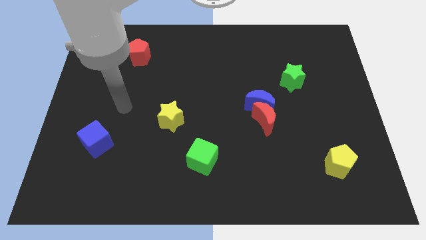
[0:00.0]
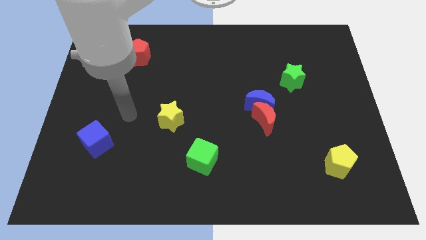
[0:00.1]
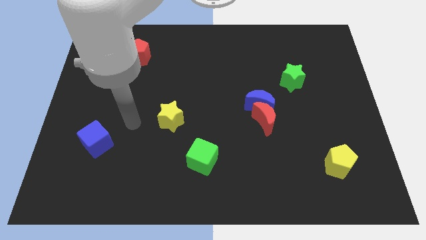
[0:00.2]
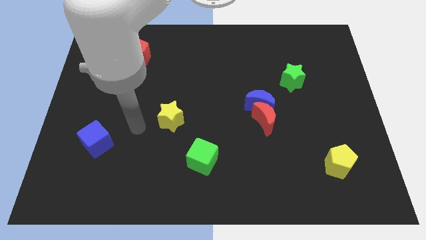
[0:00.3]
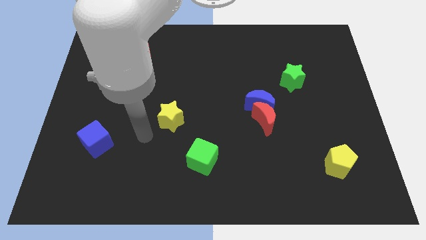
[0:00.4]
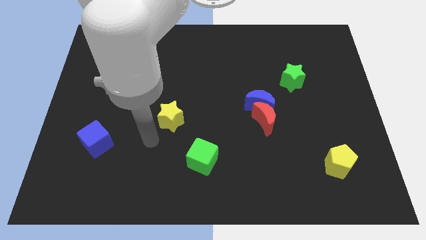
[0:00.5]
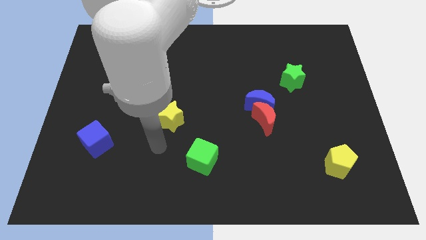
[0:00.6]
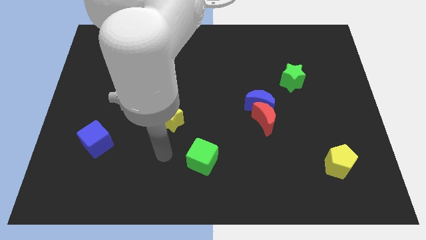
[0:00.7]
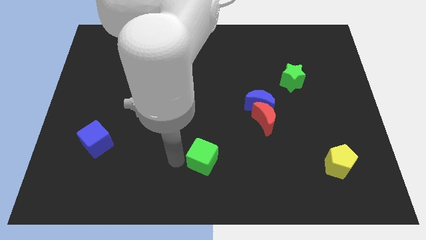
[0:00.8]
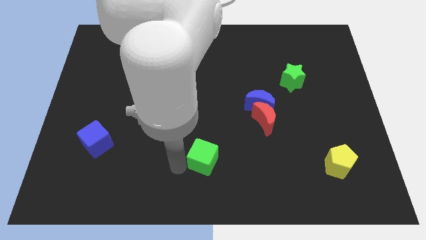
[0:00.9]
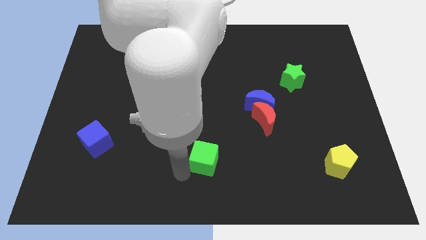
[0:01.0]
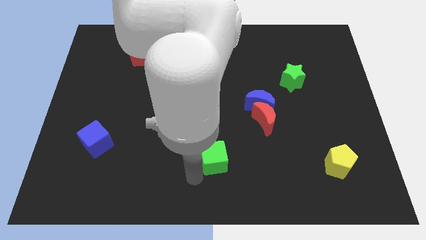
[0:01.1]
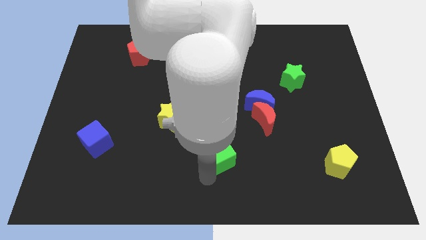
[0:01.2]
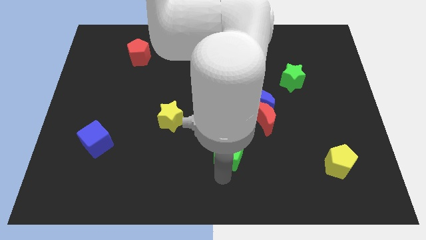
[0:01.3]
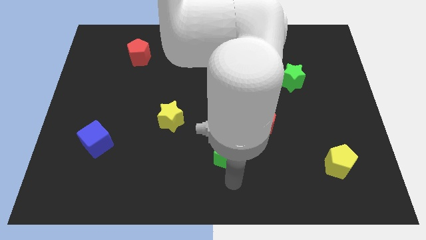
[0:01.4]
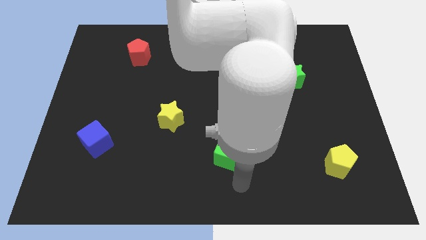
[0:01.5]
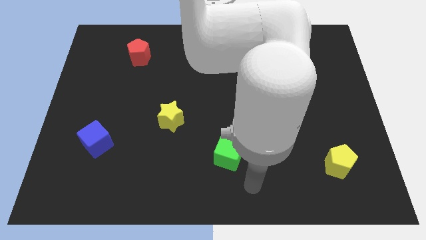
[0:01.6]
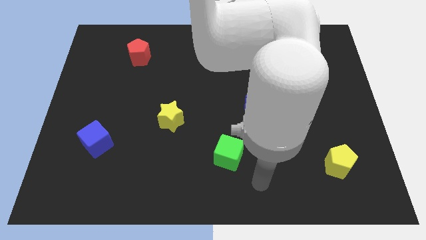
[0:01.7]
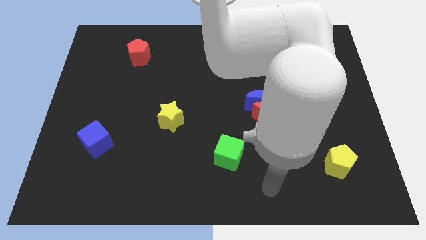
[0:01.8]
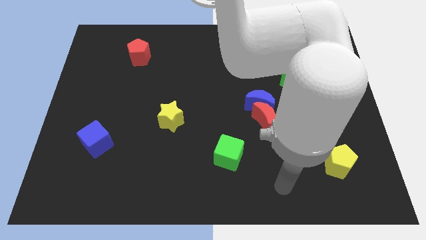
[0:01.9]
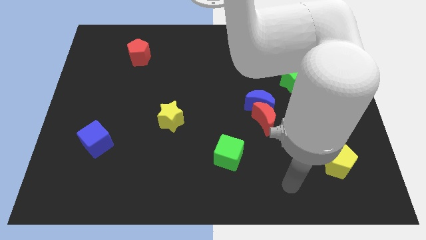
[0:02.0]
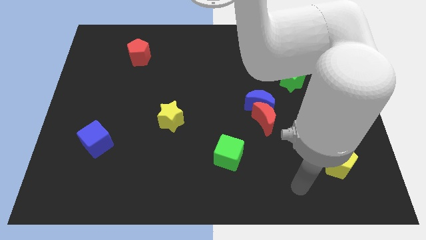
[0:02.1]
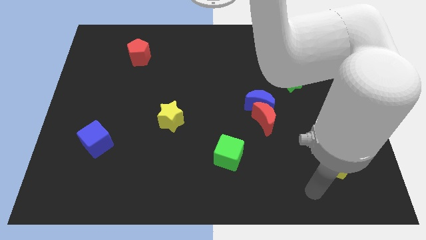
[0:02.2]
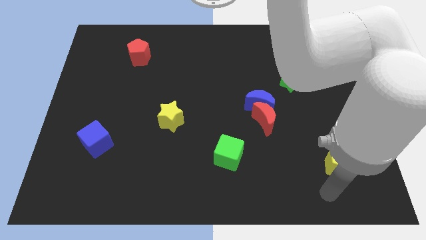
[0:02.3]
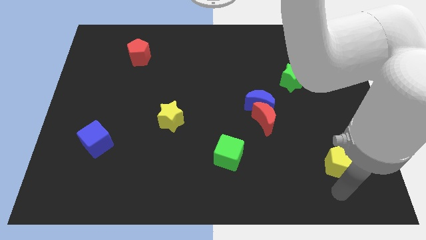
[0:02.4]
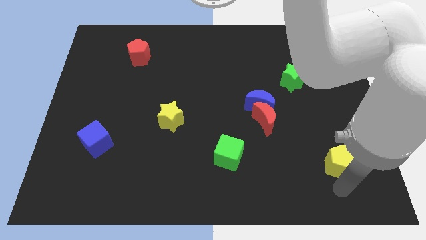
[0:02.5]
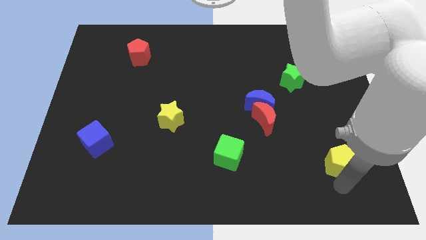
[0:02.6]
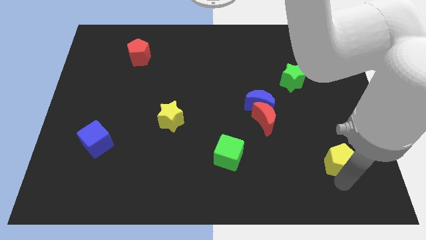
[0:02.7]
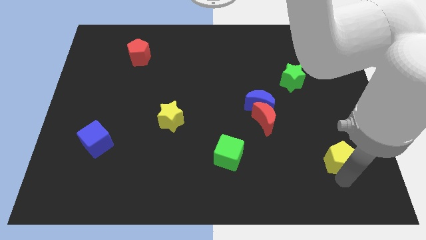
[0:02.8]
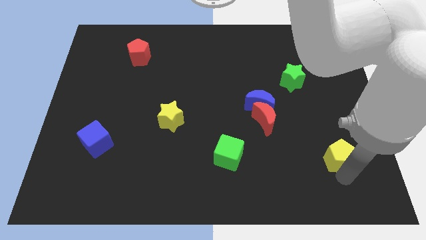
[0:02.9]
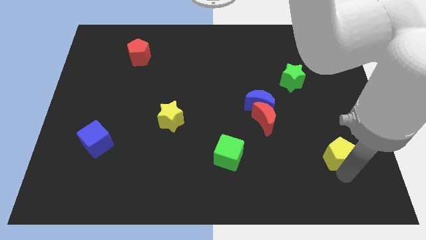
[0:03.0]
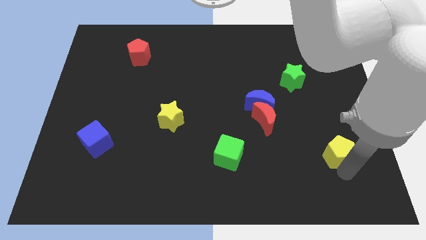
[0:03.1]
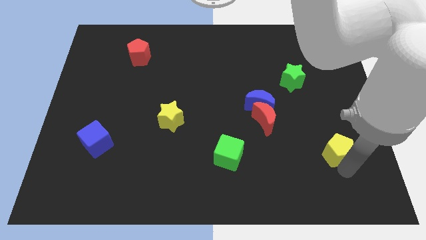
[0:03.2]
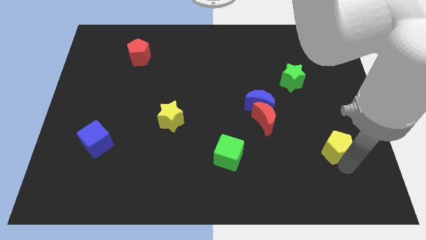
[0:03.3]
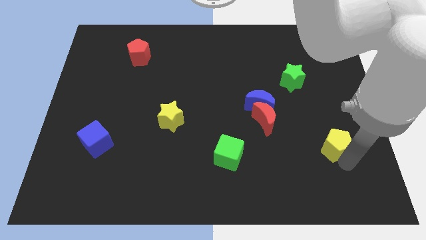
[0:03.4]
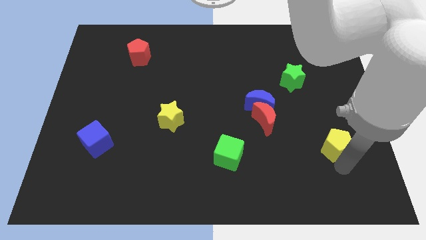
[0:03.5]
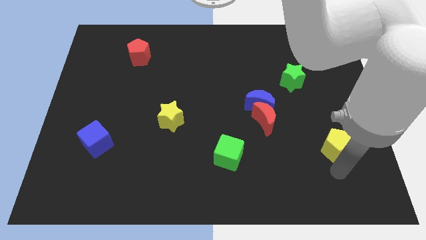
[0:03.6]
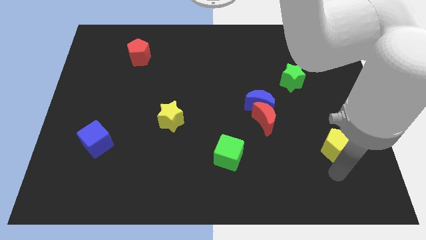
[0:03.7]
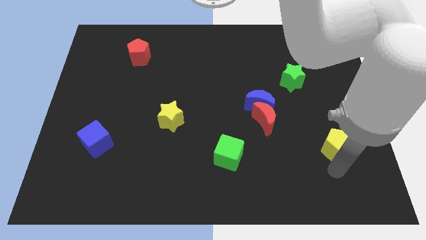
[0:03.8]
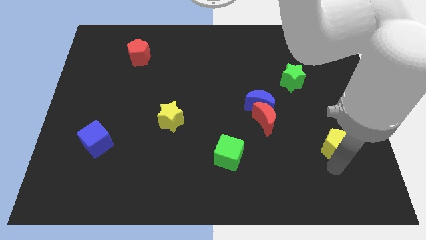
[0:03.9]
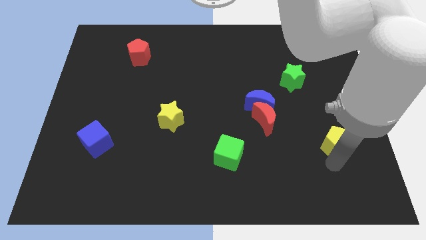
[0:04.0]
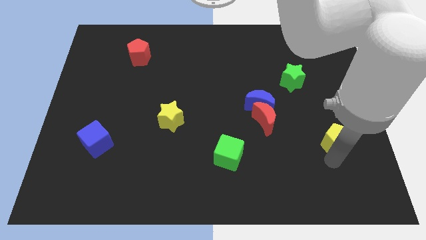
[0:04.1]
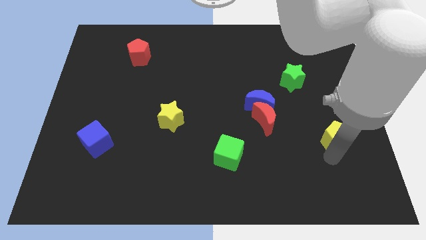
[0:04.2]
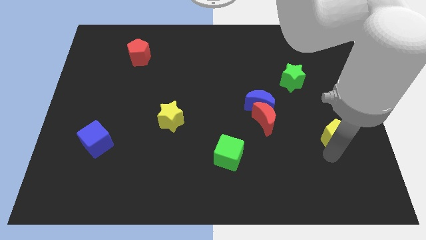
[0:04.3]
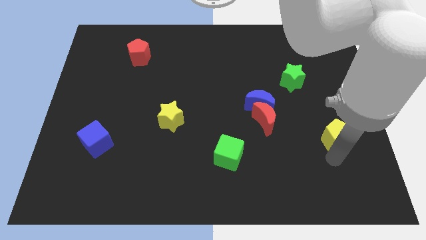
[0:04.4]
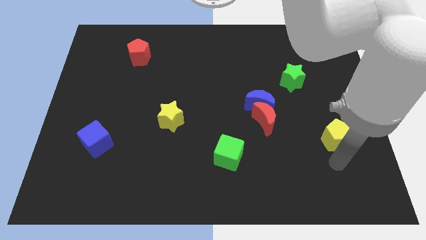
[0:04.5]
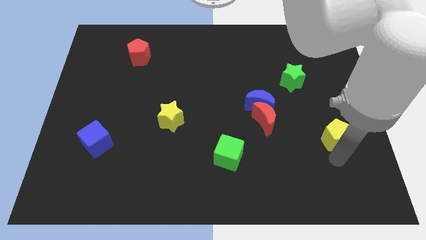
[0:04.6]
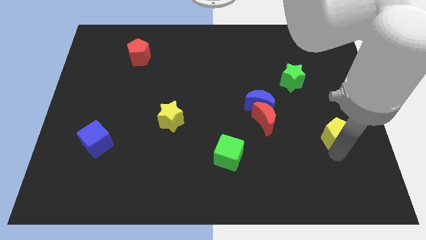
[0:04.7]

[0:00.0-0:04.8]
slightly push the yellow pentagon upwards

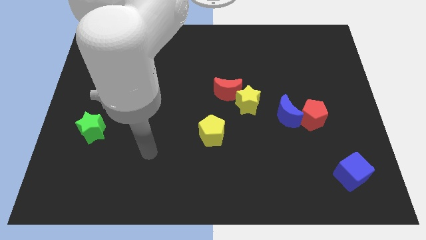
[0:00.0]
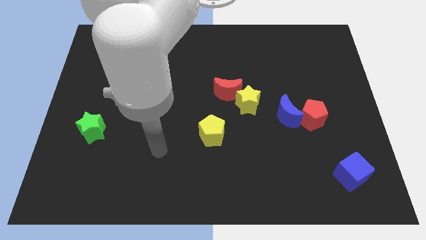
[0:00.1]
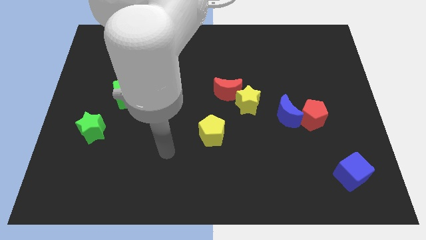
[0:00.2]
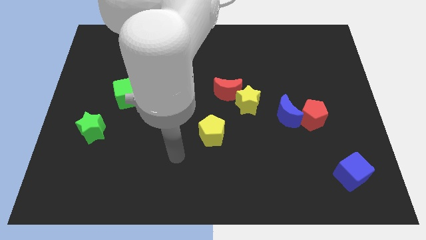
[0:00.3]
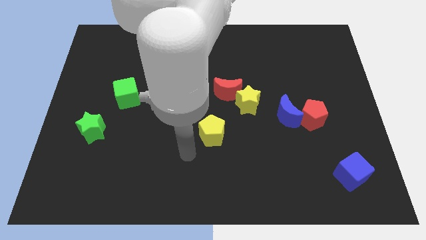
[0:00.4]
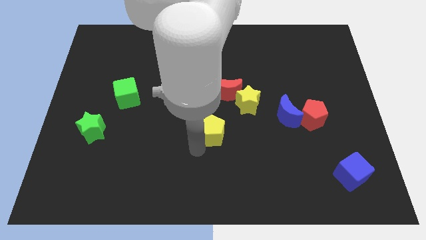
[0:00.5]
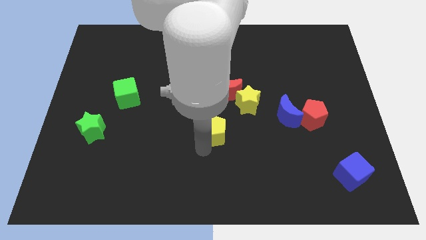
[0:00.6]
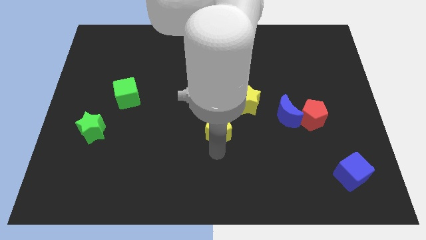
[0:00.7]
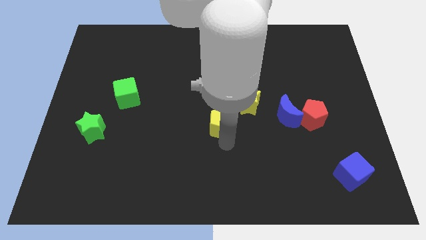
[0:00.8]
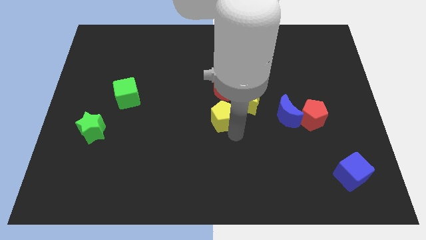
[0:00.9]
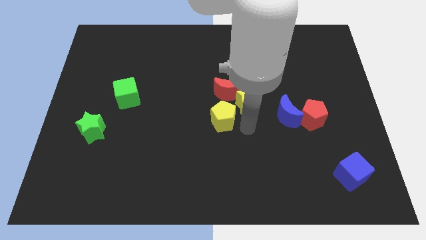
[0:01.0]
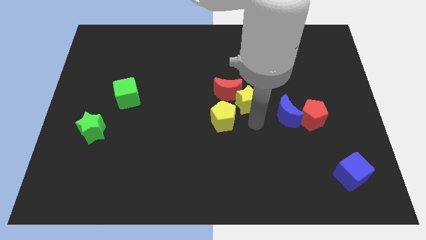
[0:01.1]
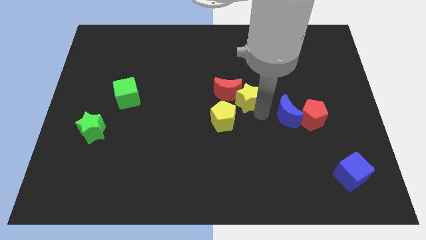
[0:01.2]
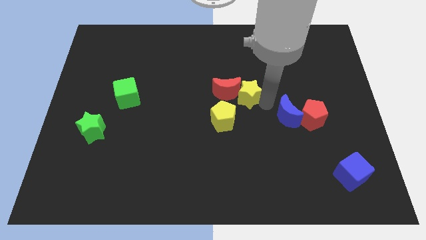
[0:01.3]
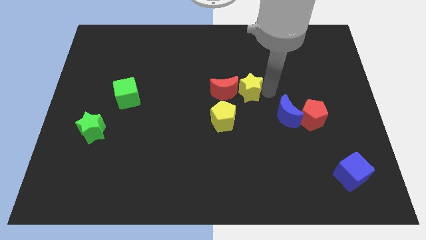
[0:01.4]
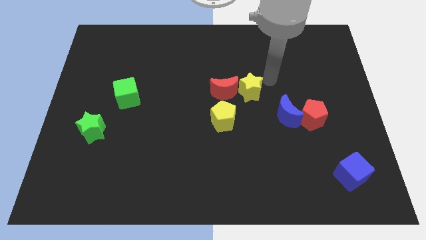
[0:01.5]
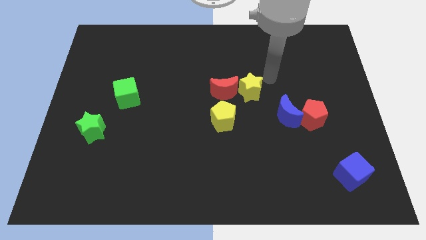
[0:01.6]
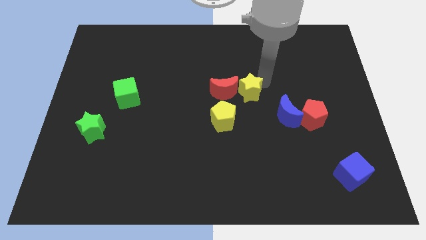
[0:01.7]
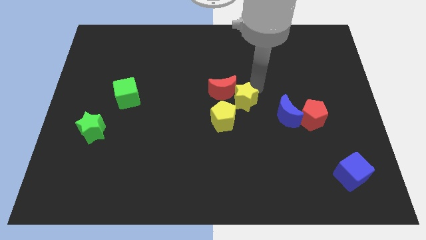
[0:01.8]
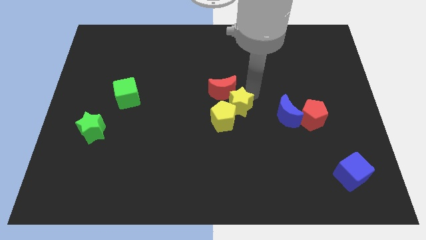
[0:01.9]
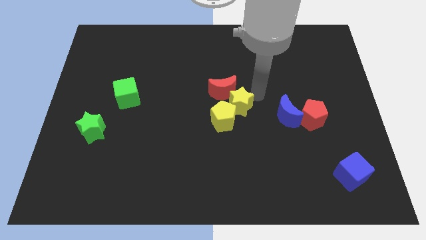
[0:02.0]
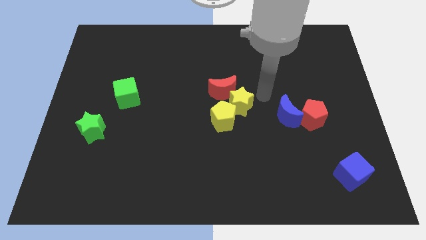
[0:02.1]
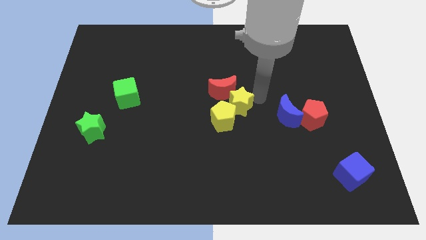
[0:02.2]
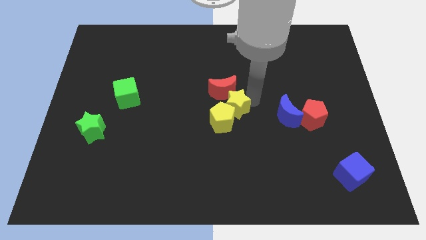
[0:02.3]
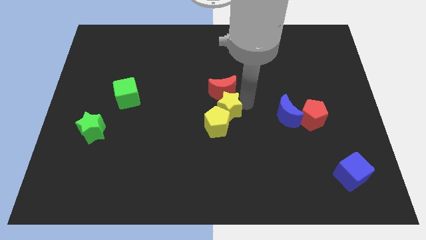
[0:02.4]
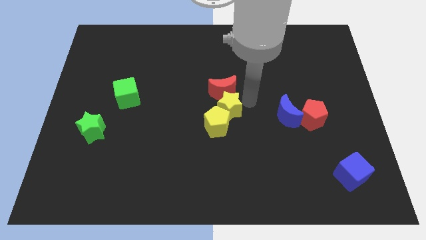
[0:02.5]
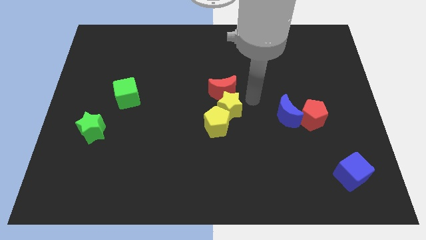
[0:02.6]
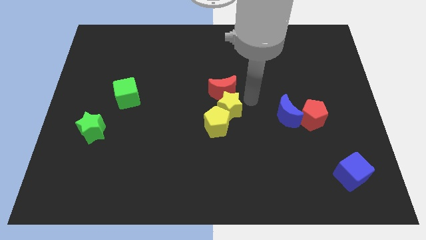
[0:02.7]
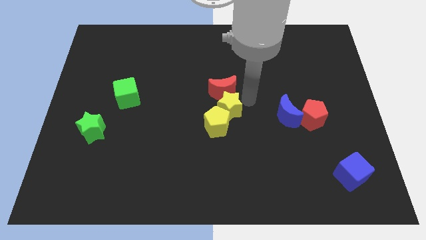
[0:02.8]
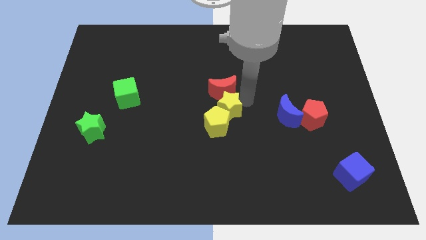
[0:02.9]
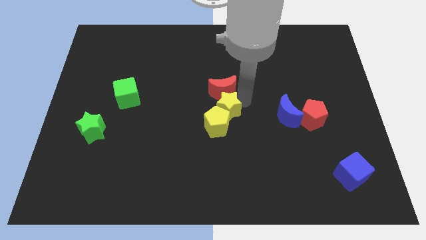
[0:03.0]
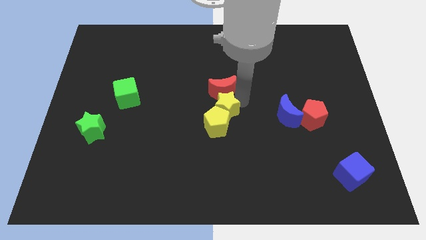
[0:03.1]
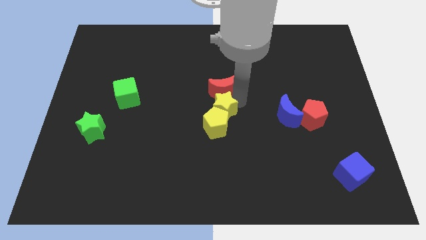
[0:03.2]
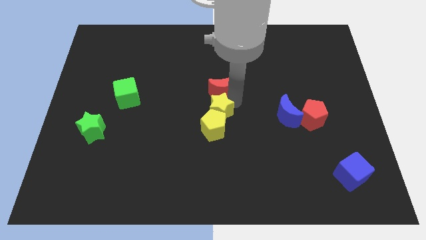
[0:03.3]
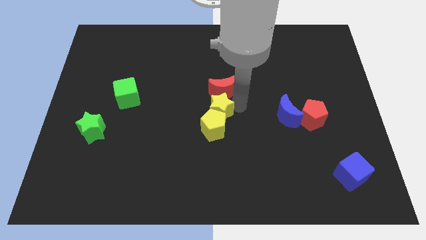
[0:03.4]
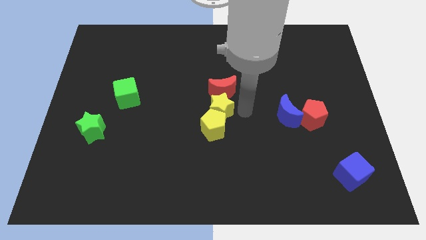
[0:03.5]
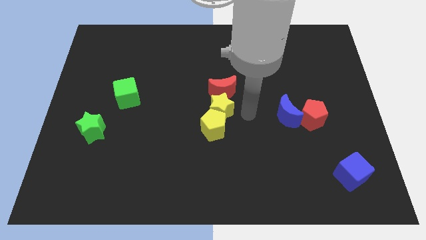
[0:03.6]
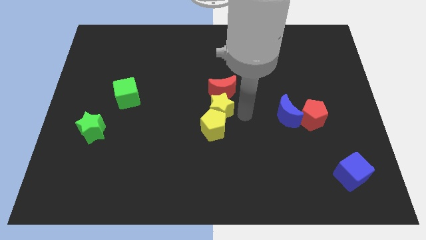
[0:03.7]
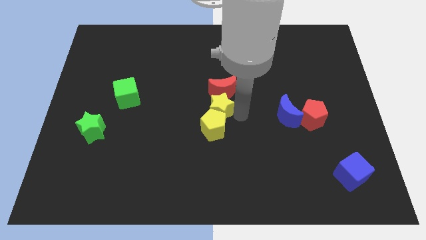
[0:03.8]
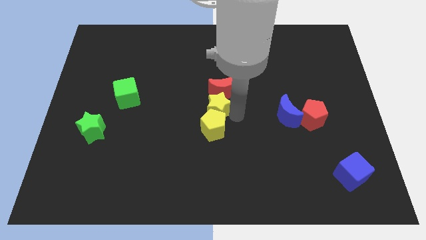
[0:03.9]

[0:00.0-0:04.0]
slide the yellow star to the left somewhat
